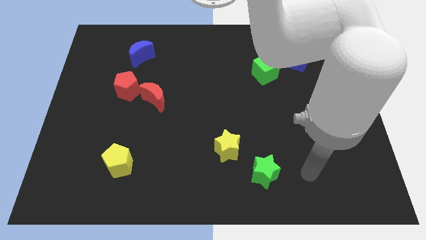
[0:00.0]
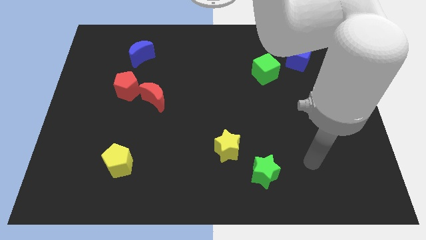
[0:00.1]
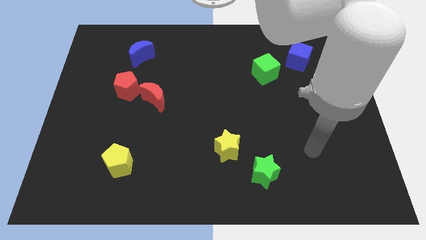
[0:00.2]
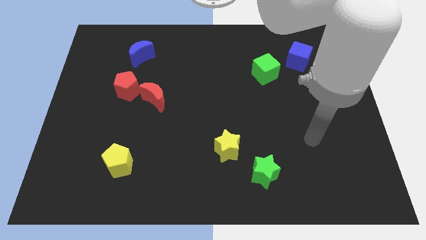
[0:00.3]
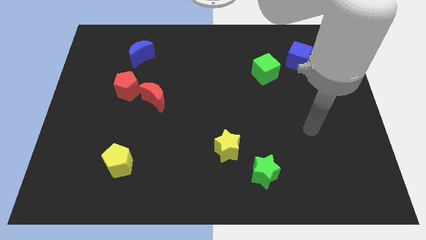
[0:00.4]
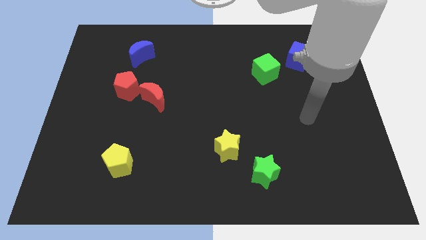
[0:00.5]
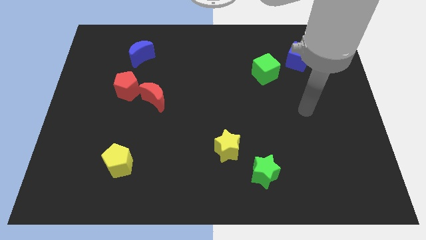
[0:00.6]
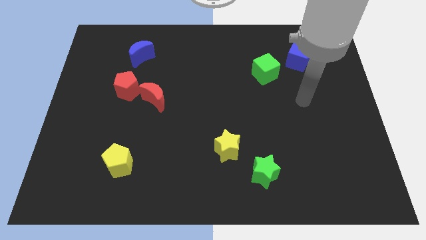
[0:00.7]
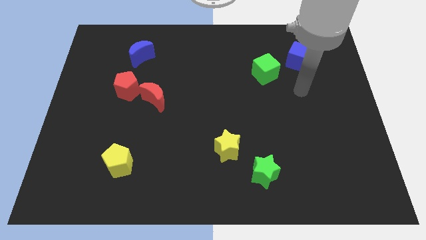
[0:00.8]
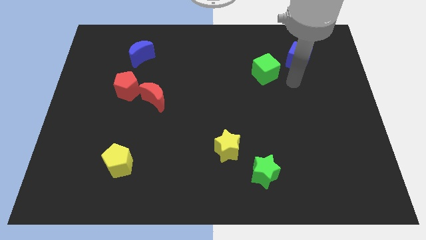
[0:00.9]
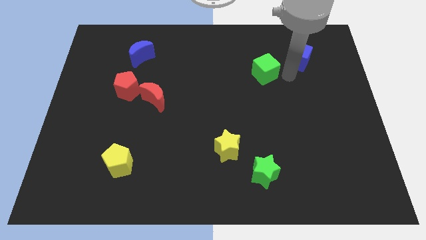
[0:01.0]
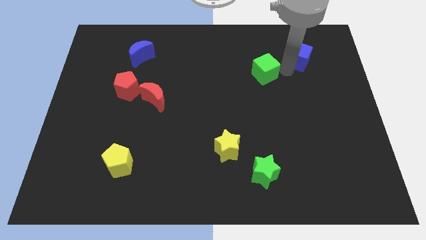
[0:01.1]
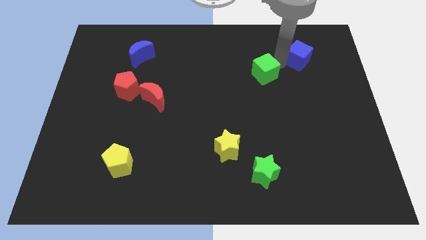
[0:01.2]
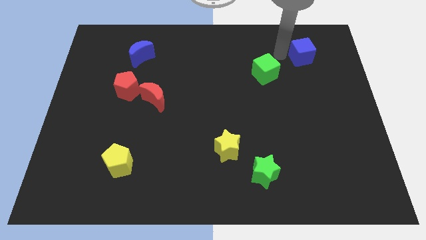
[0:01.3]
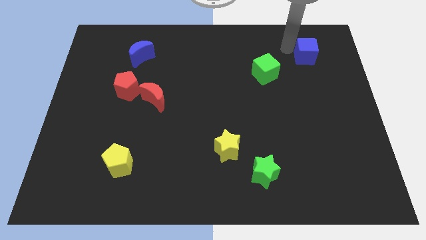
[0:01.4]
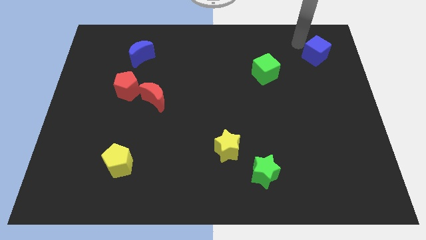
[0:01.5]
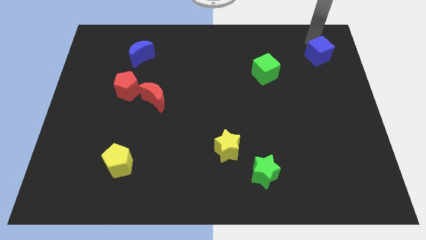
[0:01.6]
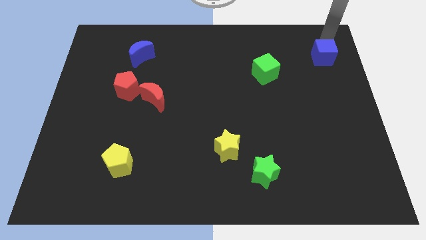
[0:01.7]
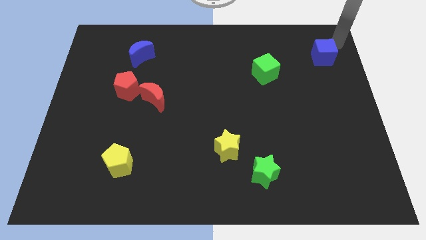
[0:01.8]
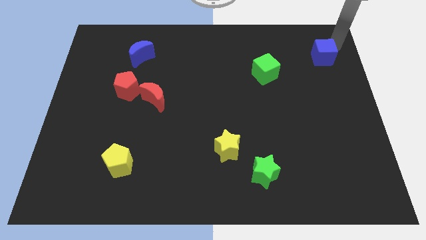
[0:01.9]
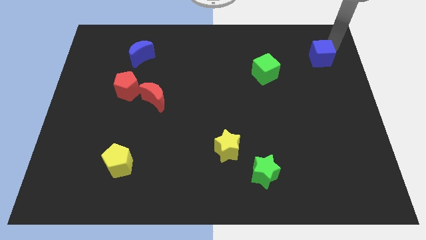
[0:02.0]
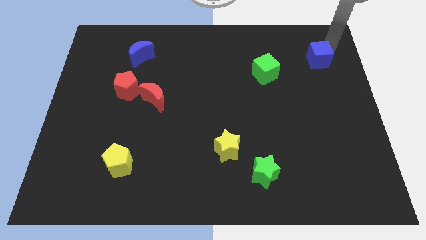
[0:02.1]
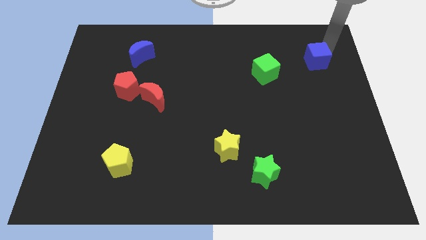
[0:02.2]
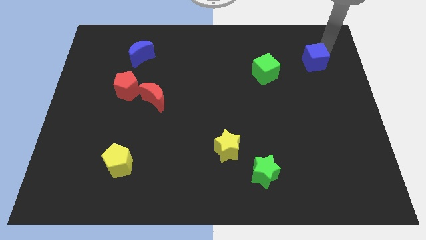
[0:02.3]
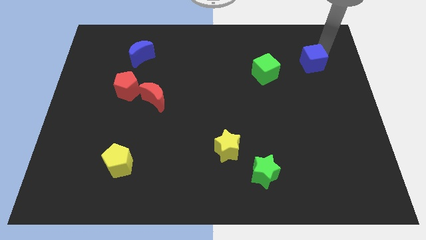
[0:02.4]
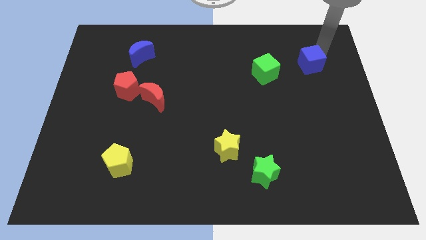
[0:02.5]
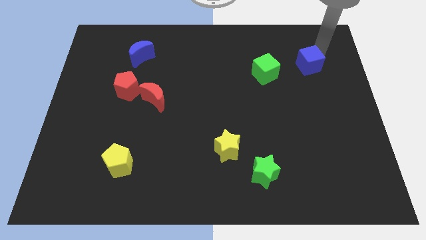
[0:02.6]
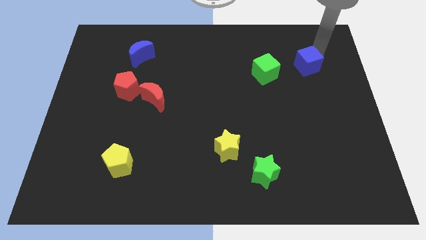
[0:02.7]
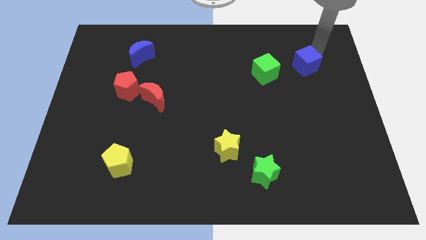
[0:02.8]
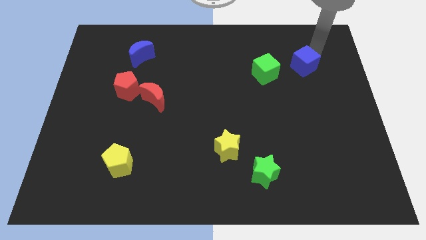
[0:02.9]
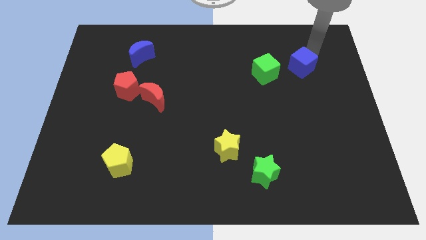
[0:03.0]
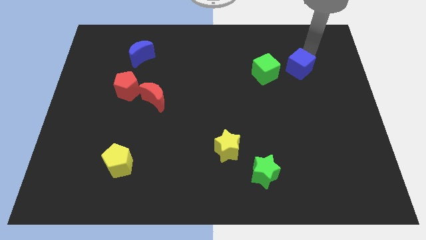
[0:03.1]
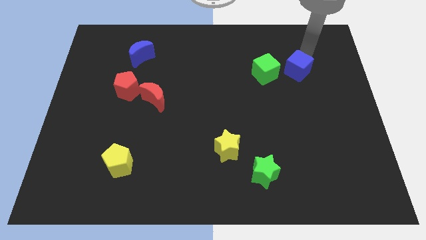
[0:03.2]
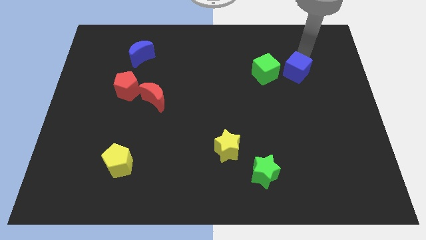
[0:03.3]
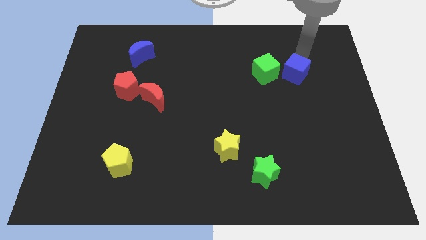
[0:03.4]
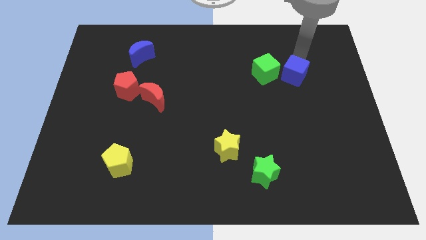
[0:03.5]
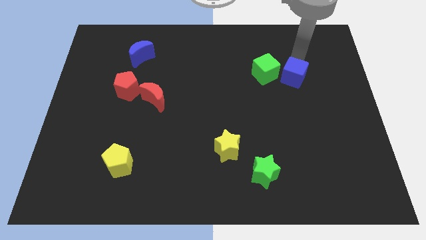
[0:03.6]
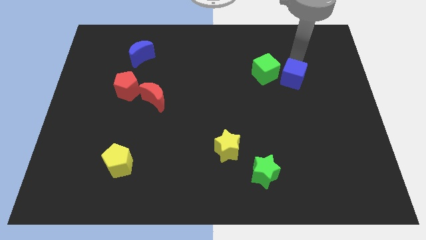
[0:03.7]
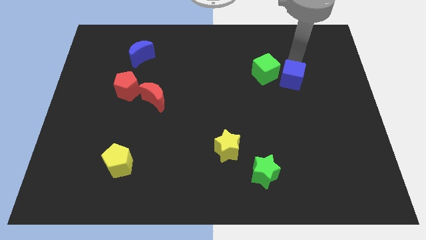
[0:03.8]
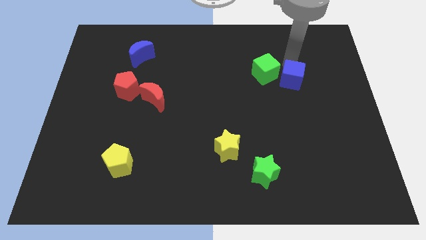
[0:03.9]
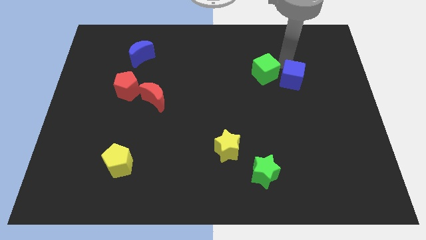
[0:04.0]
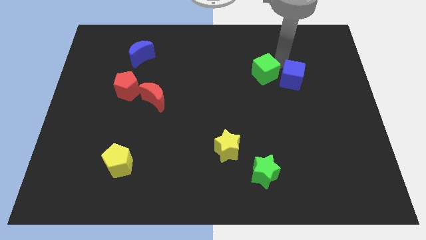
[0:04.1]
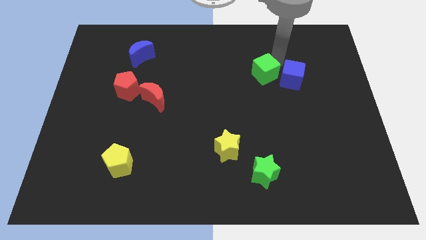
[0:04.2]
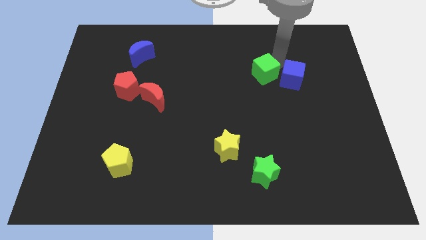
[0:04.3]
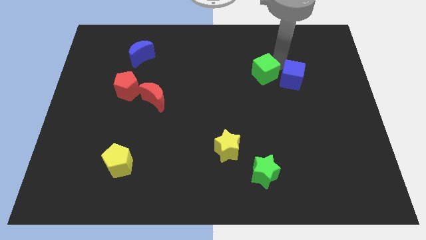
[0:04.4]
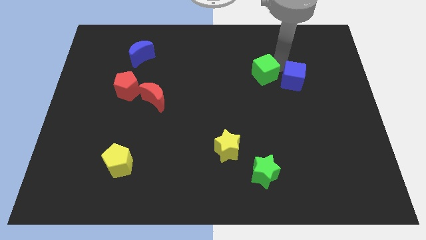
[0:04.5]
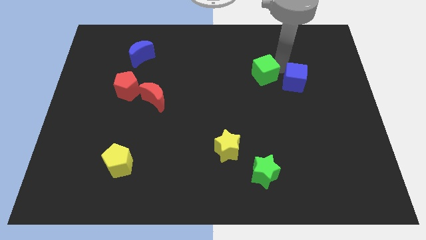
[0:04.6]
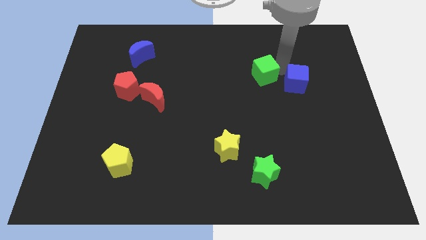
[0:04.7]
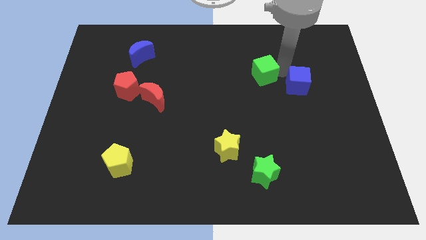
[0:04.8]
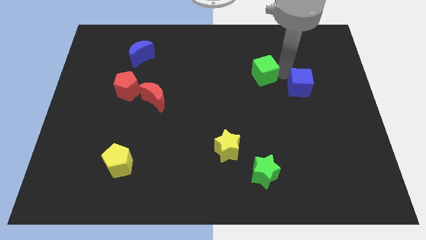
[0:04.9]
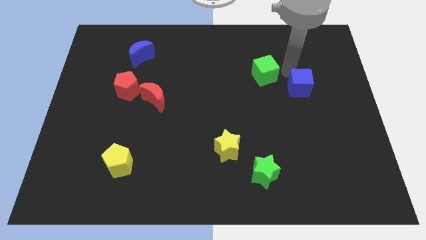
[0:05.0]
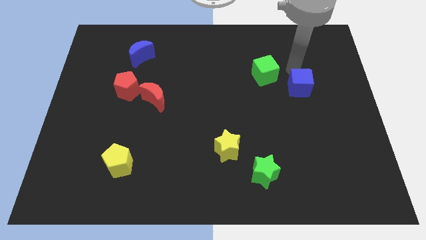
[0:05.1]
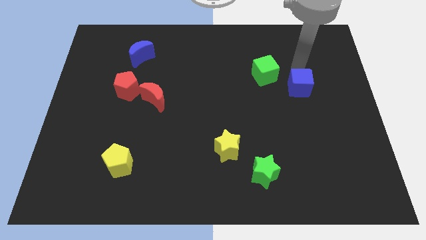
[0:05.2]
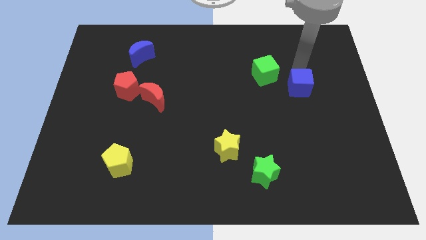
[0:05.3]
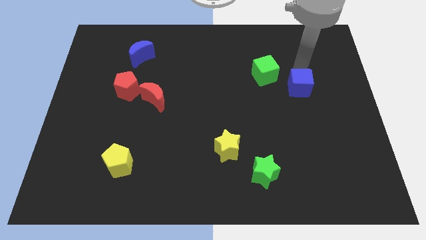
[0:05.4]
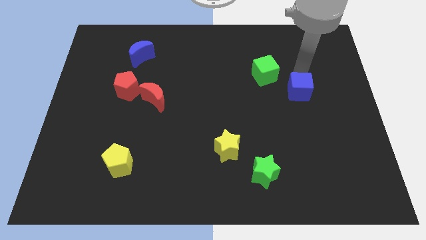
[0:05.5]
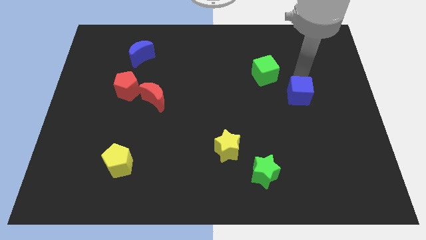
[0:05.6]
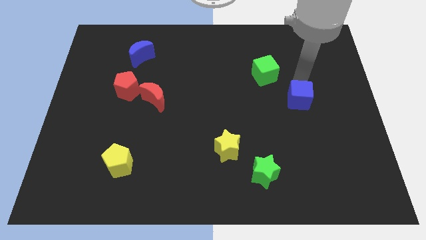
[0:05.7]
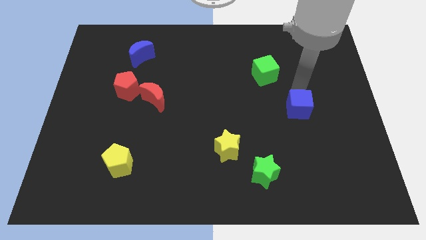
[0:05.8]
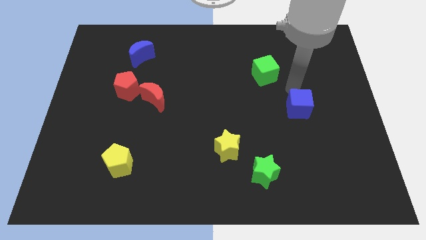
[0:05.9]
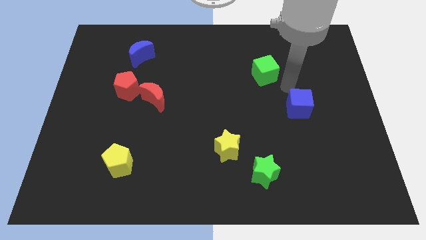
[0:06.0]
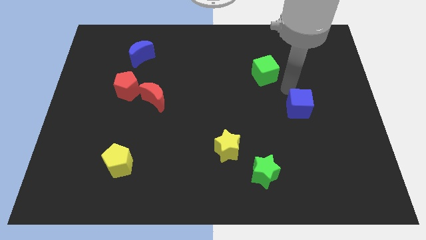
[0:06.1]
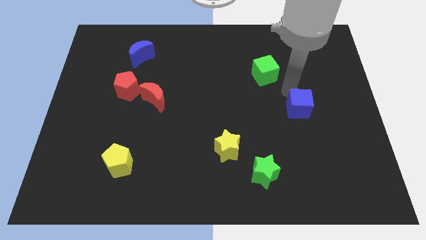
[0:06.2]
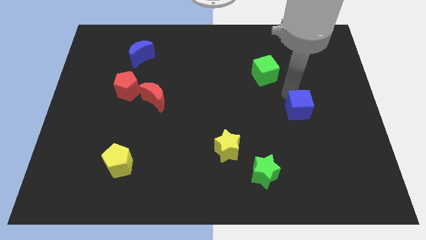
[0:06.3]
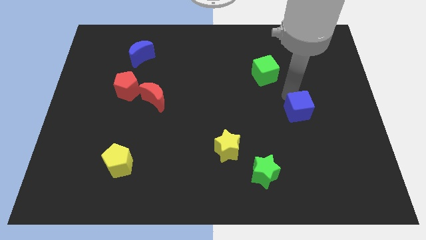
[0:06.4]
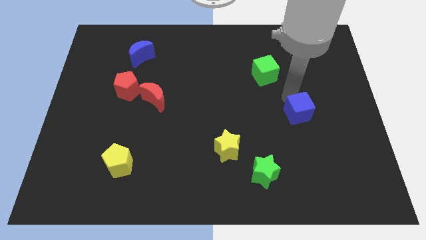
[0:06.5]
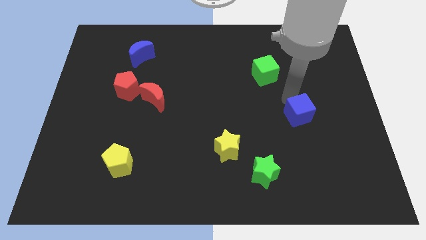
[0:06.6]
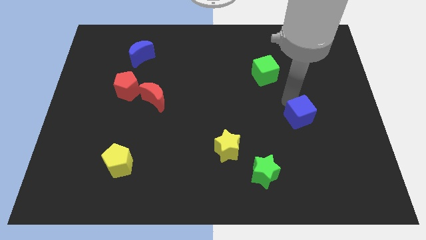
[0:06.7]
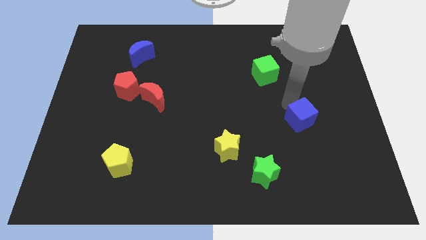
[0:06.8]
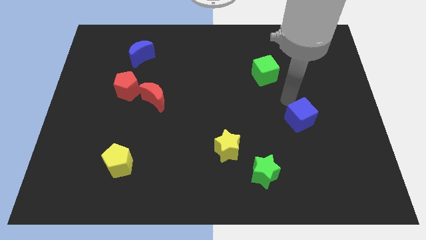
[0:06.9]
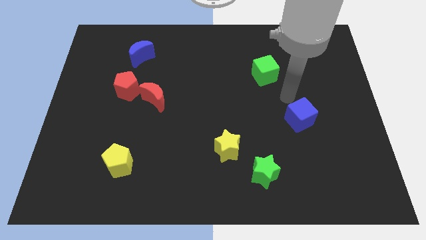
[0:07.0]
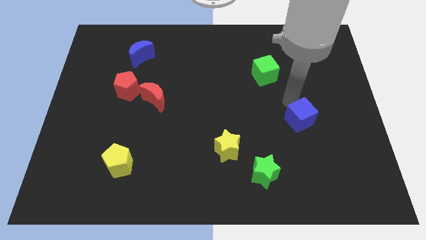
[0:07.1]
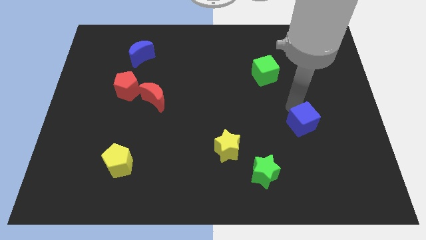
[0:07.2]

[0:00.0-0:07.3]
move the blue cube downwards

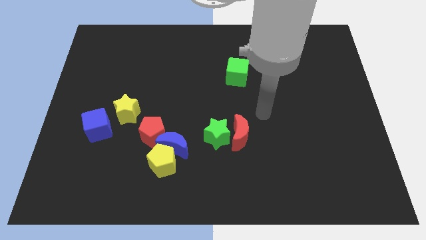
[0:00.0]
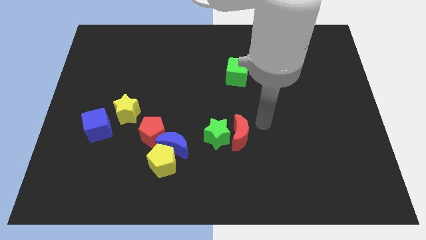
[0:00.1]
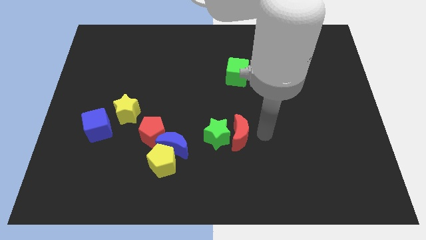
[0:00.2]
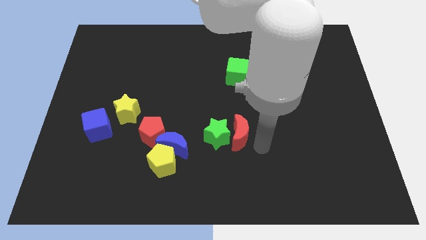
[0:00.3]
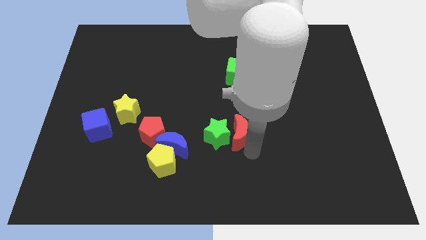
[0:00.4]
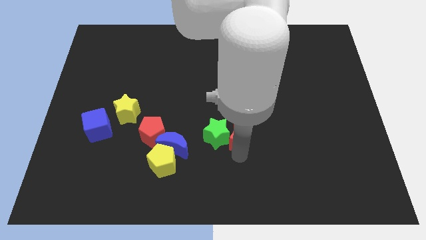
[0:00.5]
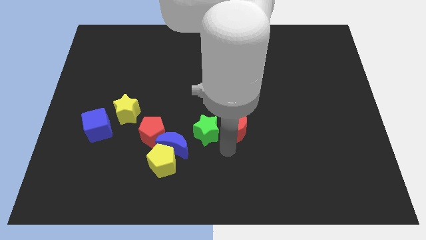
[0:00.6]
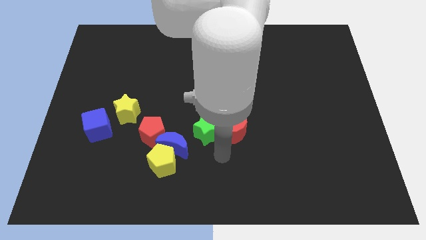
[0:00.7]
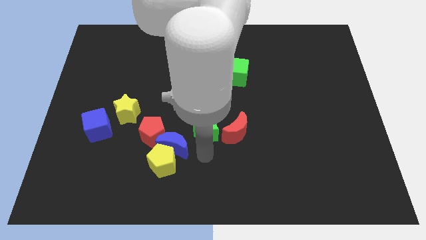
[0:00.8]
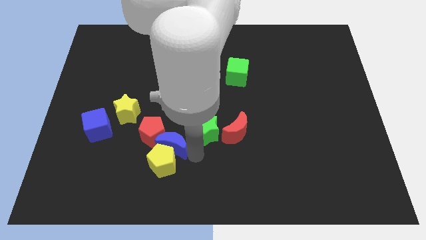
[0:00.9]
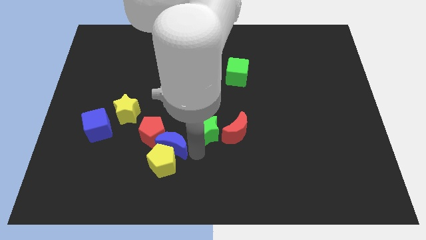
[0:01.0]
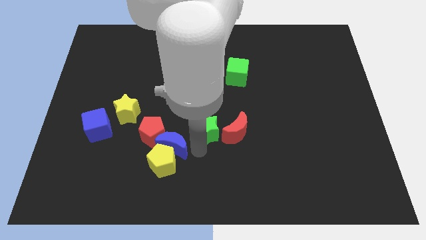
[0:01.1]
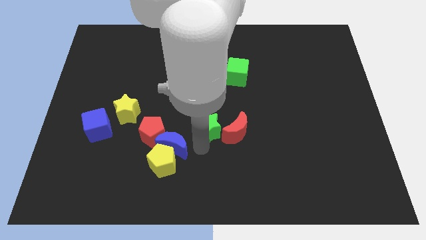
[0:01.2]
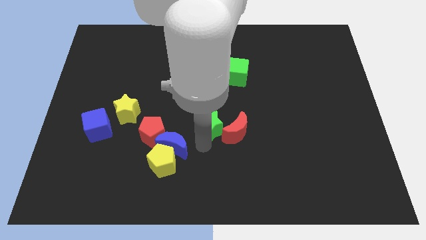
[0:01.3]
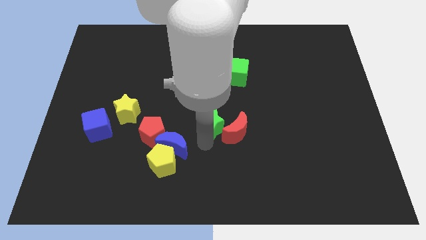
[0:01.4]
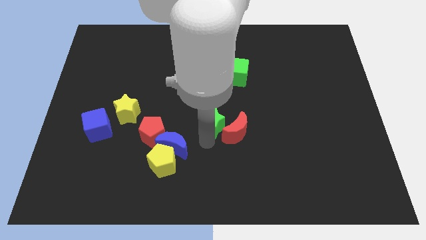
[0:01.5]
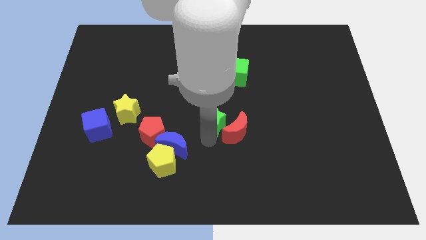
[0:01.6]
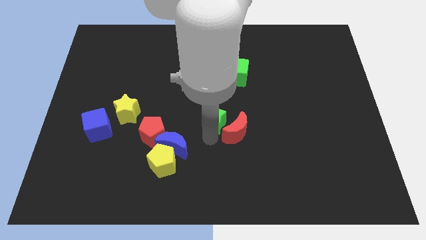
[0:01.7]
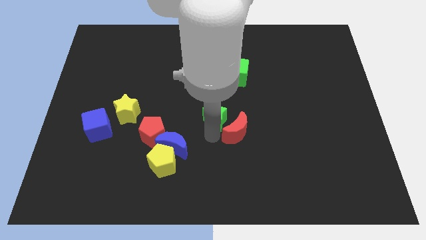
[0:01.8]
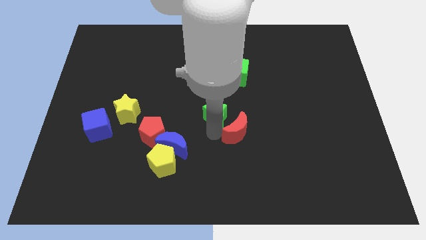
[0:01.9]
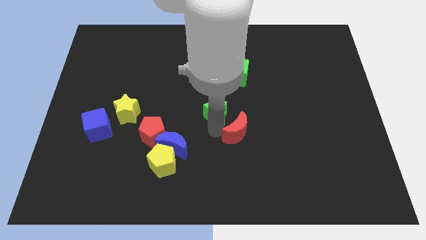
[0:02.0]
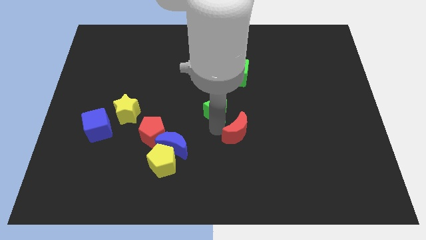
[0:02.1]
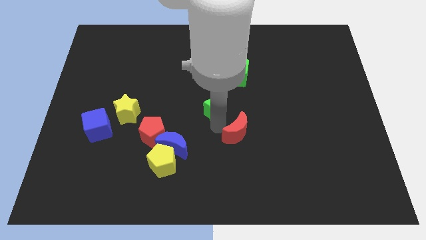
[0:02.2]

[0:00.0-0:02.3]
slide the green star upwards a bit
